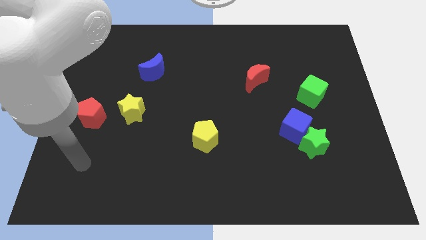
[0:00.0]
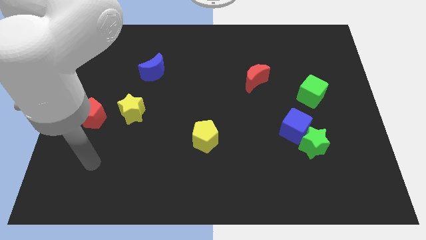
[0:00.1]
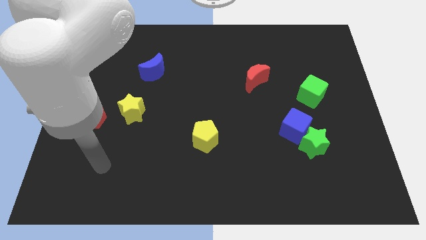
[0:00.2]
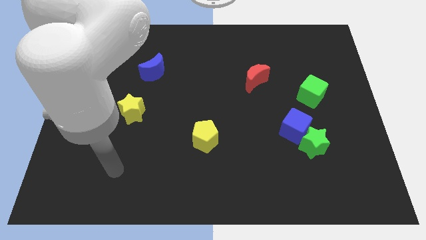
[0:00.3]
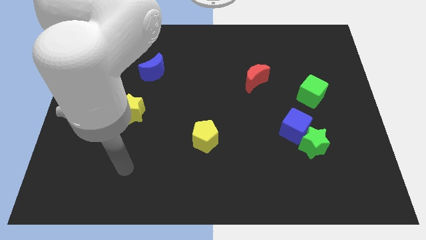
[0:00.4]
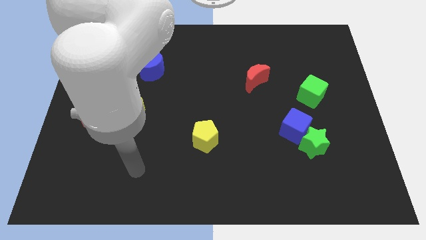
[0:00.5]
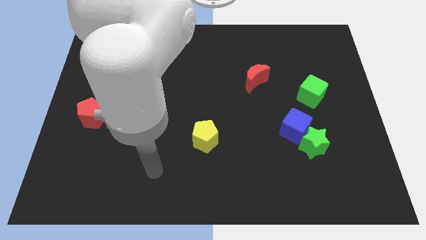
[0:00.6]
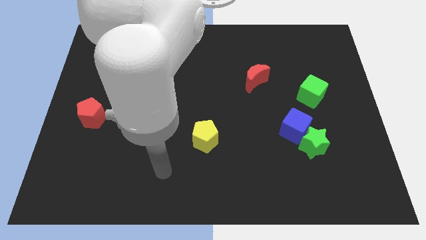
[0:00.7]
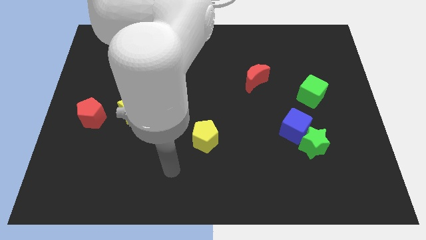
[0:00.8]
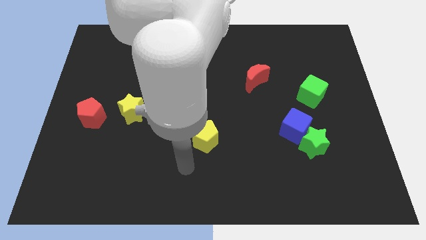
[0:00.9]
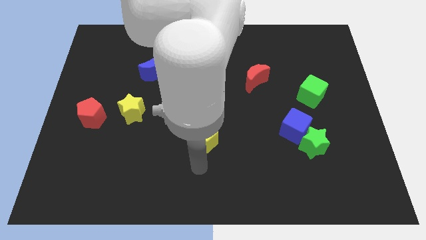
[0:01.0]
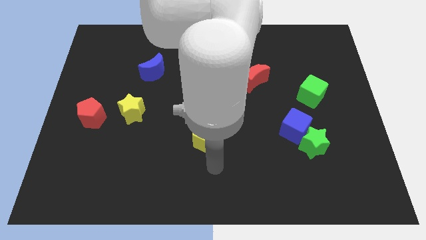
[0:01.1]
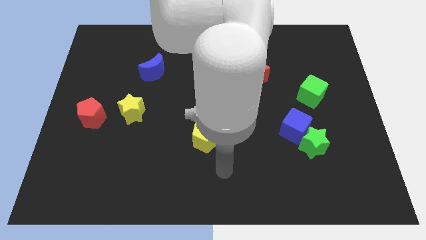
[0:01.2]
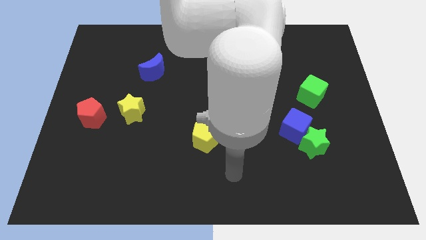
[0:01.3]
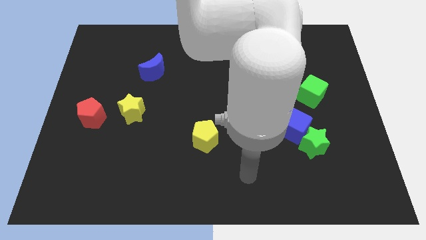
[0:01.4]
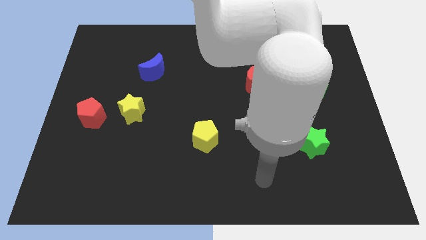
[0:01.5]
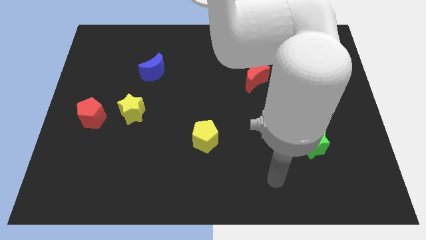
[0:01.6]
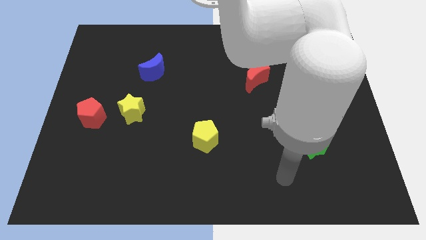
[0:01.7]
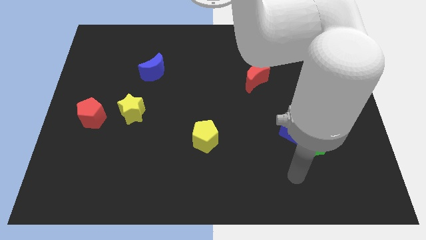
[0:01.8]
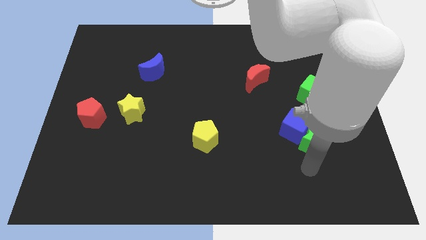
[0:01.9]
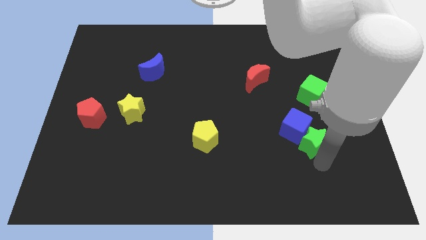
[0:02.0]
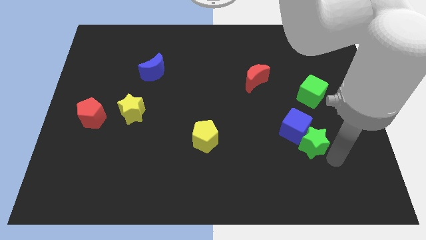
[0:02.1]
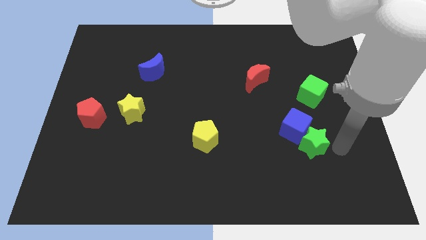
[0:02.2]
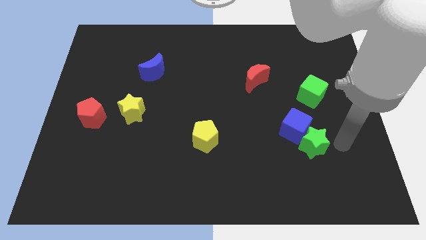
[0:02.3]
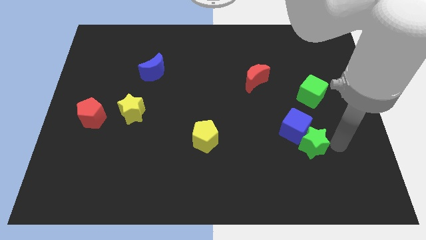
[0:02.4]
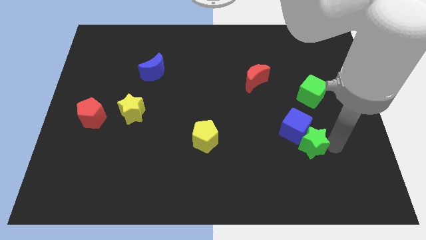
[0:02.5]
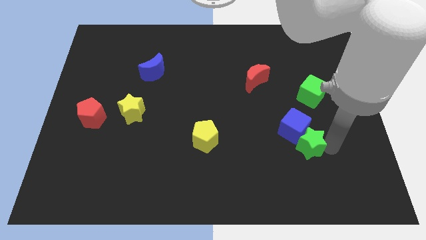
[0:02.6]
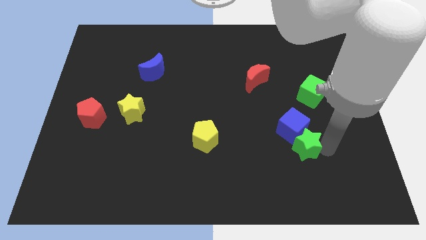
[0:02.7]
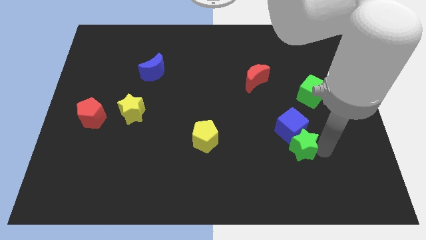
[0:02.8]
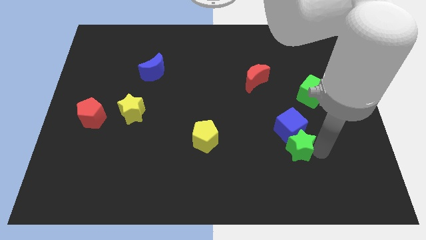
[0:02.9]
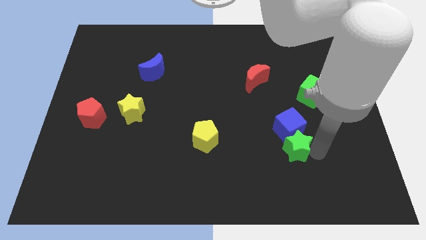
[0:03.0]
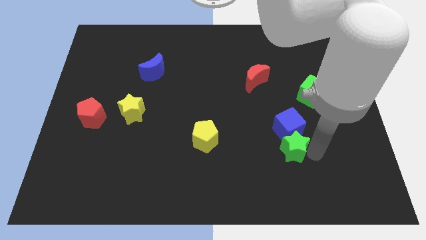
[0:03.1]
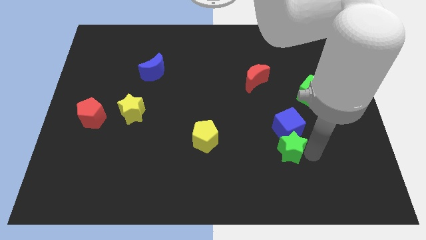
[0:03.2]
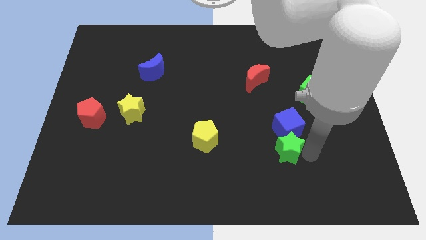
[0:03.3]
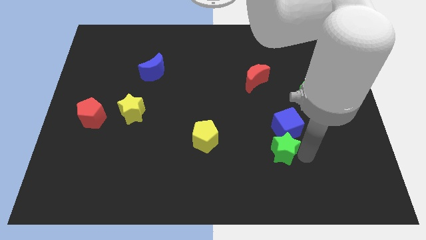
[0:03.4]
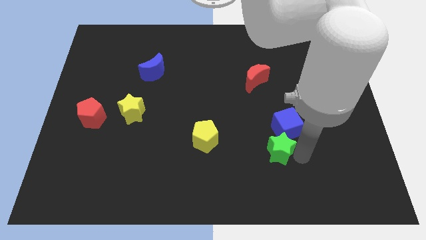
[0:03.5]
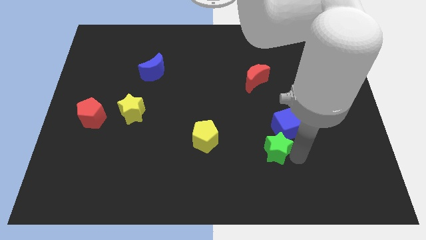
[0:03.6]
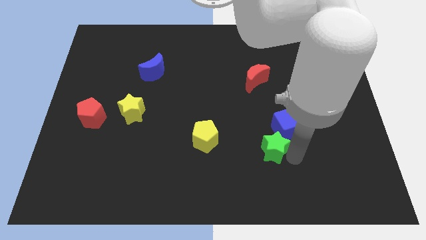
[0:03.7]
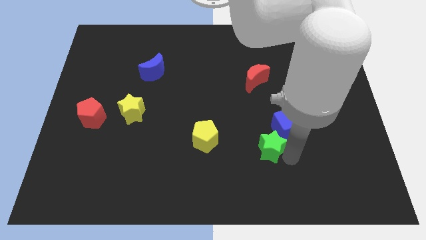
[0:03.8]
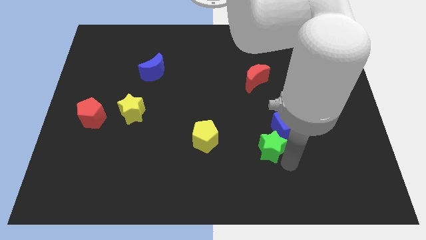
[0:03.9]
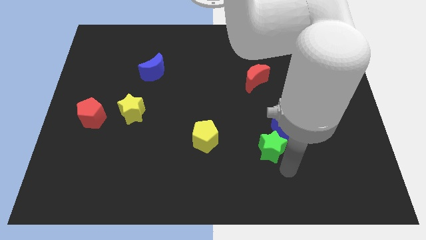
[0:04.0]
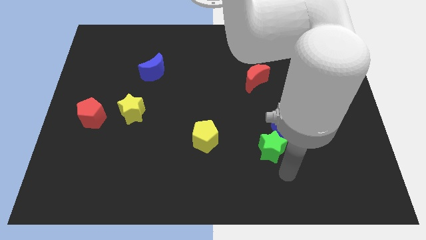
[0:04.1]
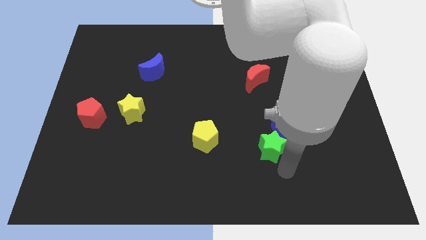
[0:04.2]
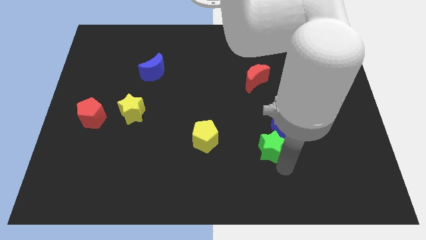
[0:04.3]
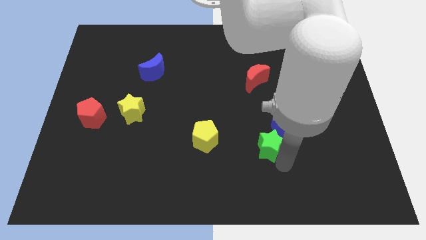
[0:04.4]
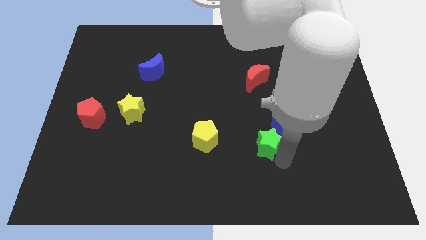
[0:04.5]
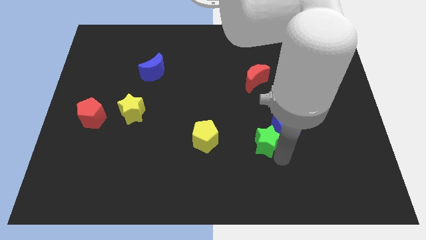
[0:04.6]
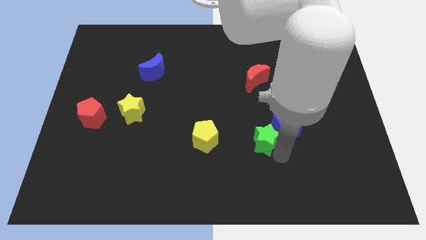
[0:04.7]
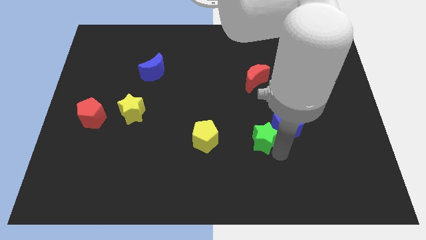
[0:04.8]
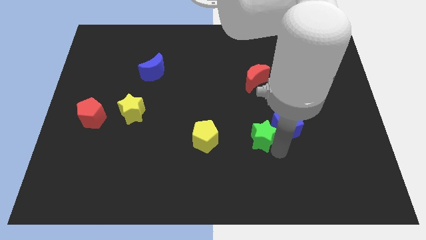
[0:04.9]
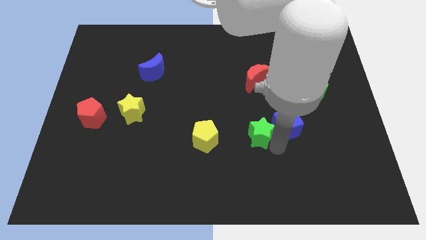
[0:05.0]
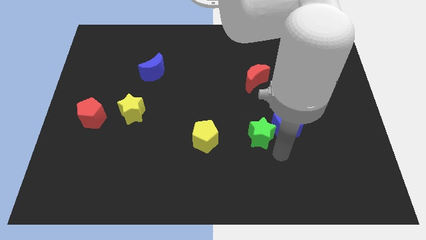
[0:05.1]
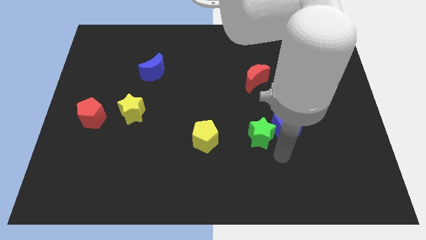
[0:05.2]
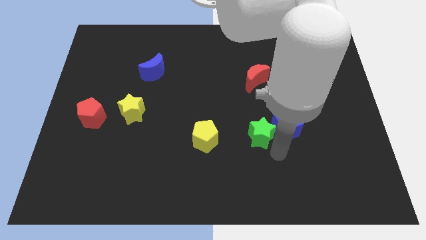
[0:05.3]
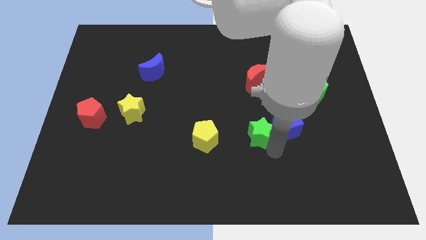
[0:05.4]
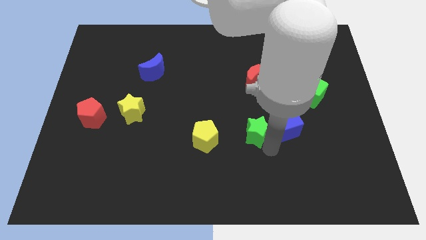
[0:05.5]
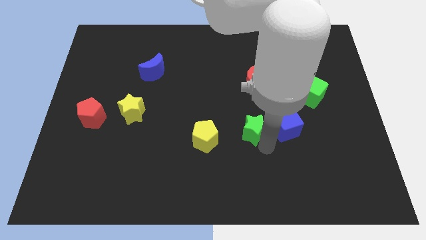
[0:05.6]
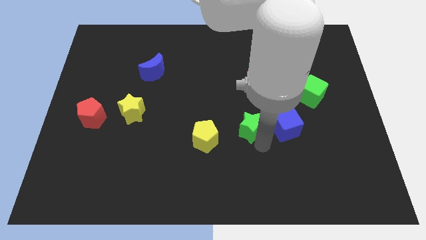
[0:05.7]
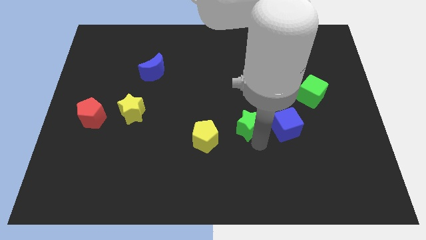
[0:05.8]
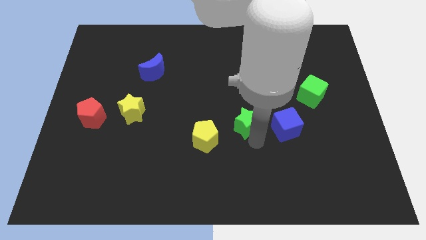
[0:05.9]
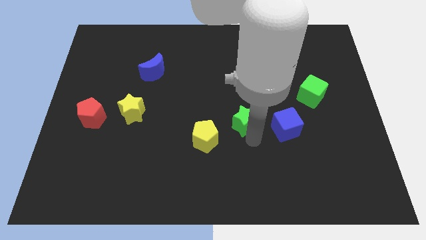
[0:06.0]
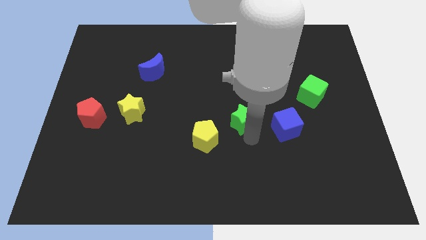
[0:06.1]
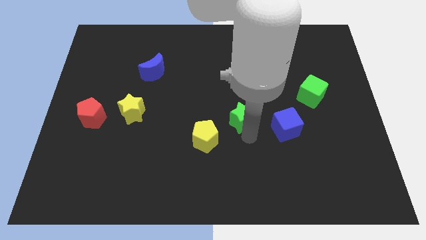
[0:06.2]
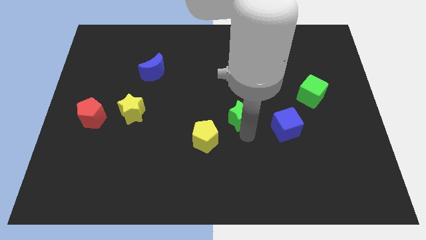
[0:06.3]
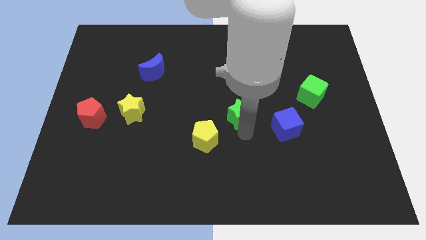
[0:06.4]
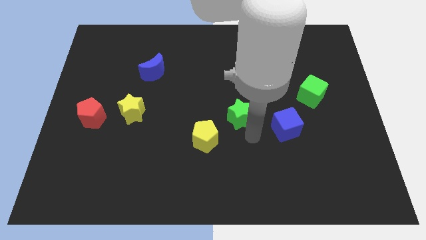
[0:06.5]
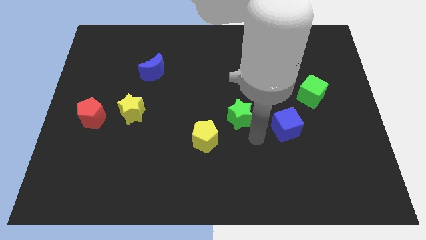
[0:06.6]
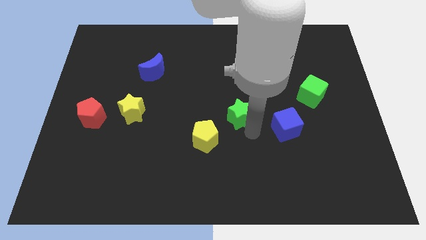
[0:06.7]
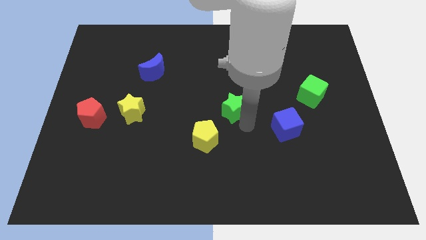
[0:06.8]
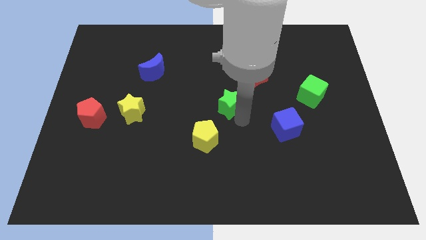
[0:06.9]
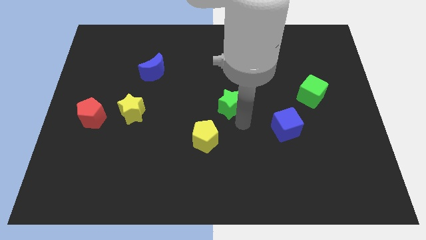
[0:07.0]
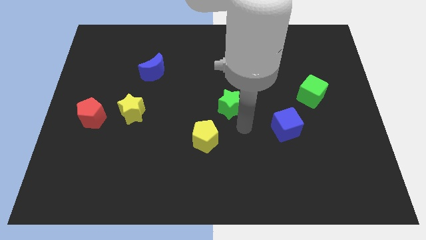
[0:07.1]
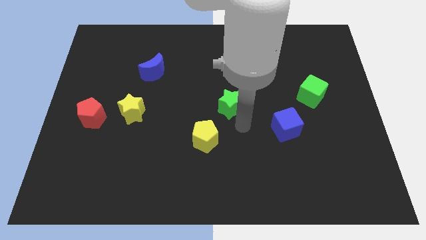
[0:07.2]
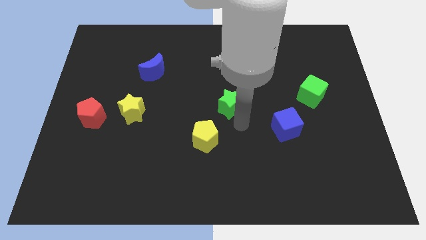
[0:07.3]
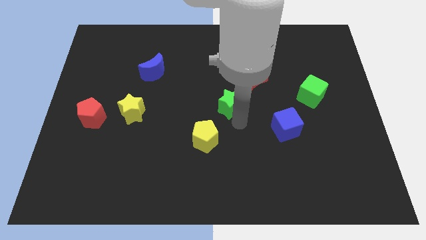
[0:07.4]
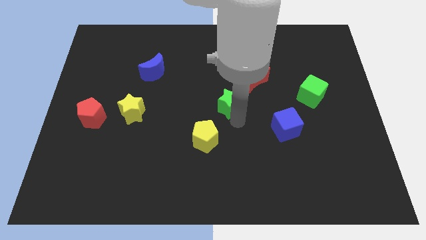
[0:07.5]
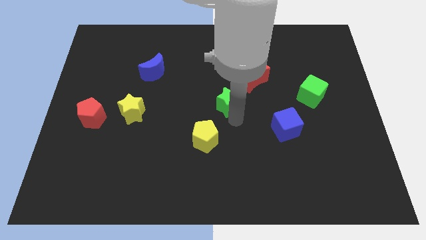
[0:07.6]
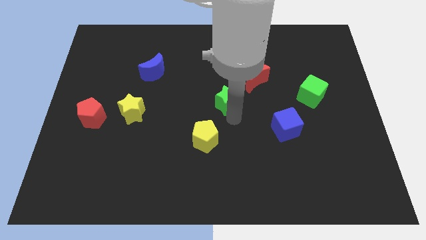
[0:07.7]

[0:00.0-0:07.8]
move the green star upwards and left diagonally

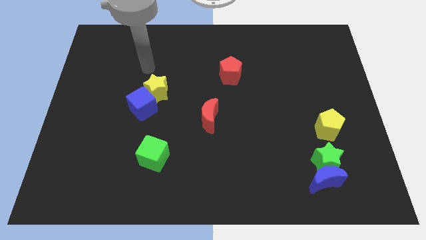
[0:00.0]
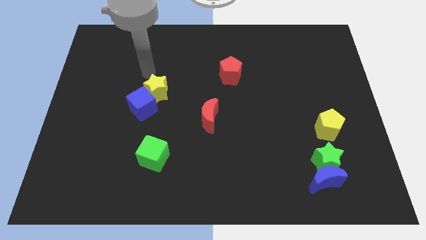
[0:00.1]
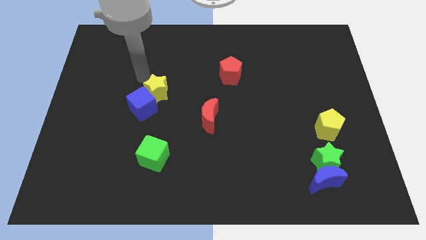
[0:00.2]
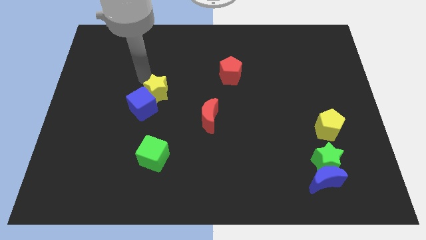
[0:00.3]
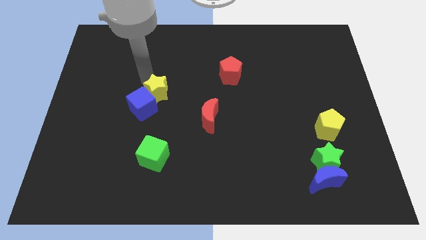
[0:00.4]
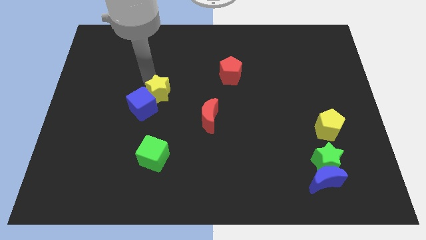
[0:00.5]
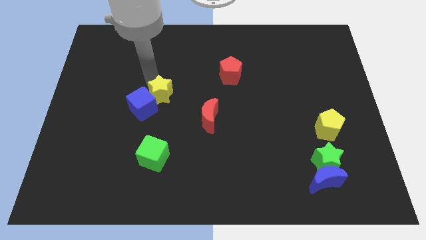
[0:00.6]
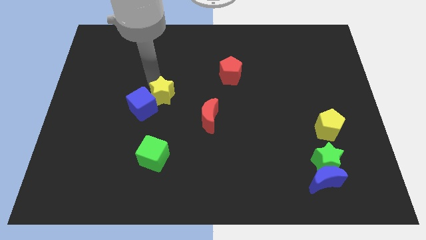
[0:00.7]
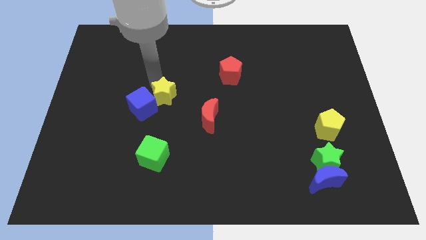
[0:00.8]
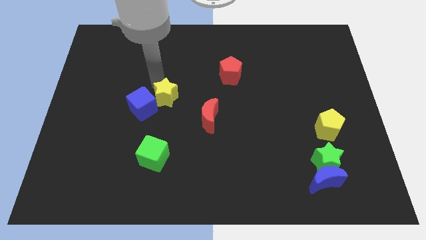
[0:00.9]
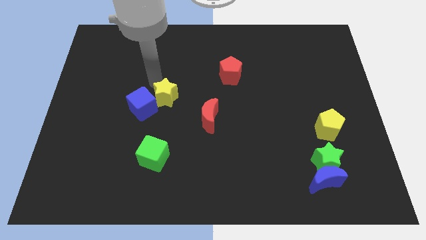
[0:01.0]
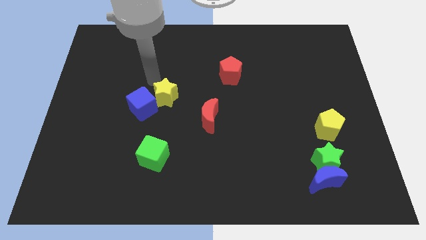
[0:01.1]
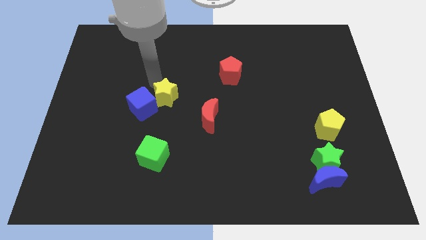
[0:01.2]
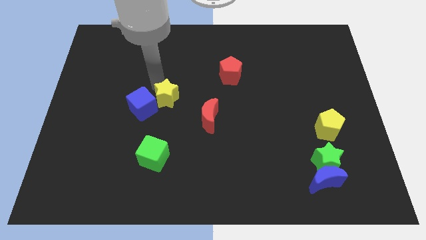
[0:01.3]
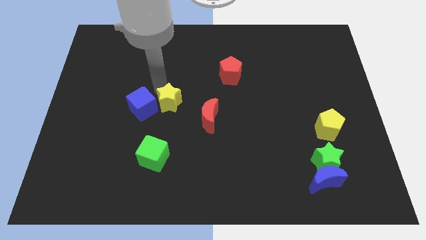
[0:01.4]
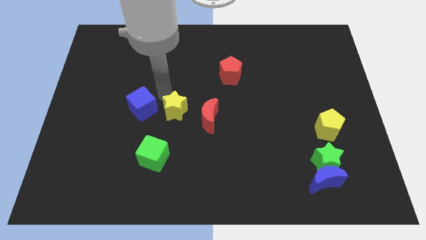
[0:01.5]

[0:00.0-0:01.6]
slightly move the yellow star downwards and right diagonally
